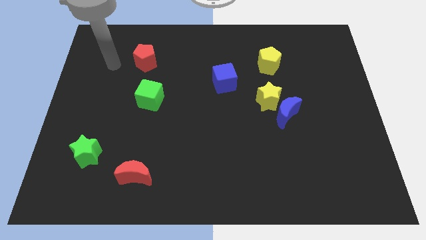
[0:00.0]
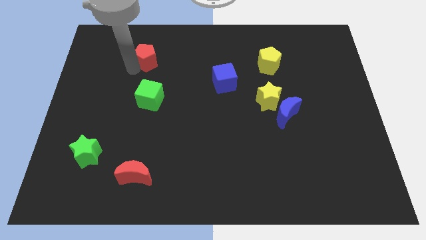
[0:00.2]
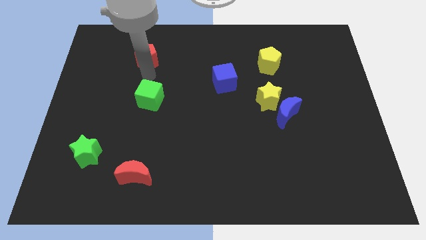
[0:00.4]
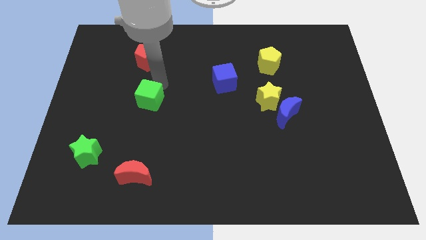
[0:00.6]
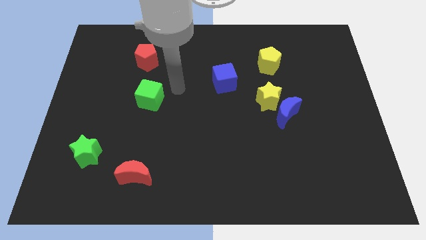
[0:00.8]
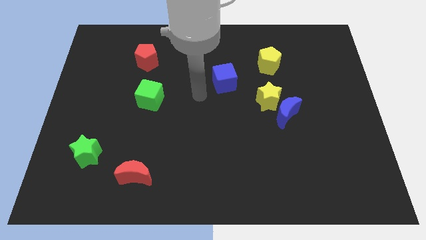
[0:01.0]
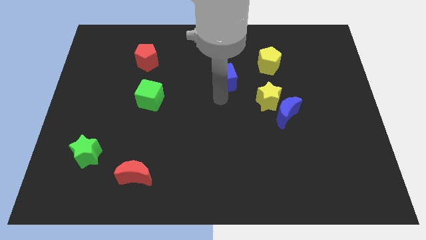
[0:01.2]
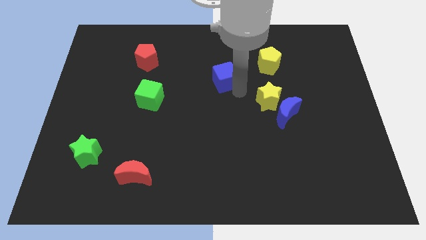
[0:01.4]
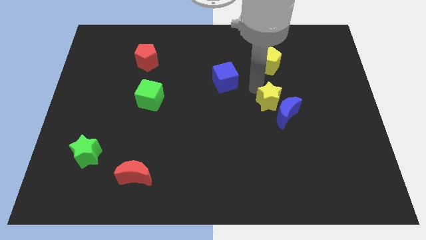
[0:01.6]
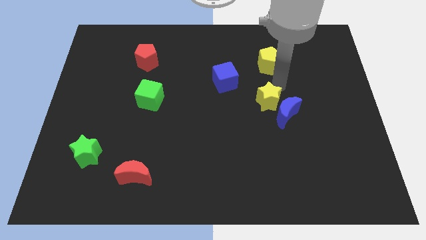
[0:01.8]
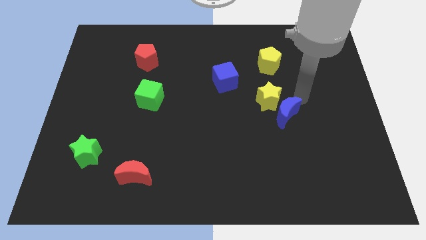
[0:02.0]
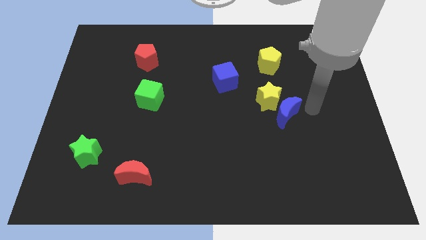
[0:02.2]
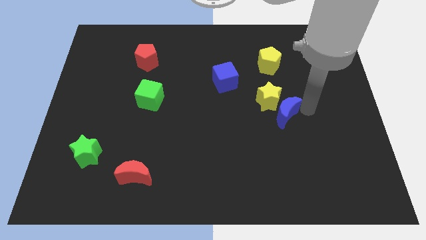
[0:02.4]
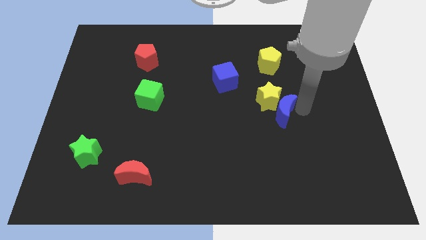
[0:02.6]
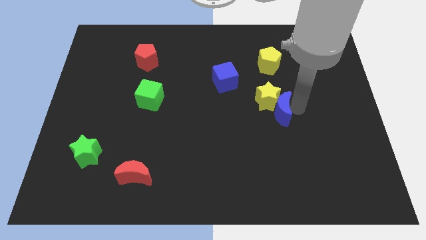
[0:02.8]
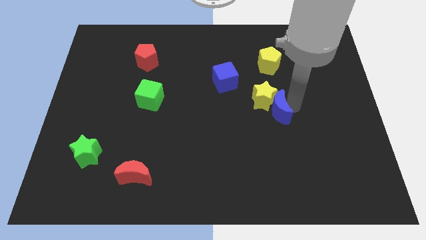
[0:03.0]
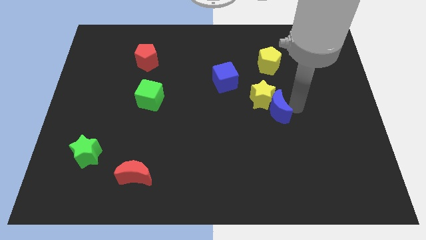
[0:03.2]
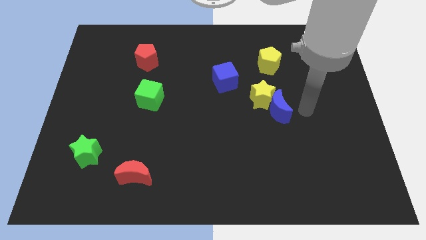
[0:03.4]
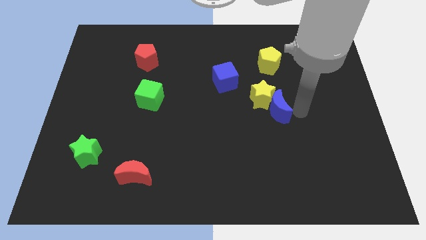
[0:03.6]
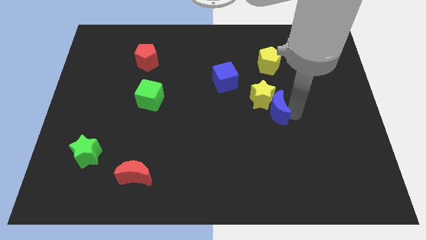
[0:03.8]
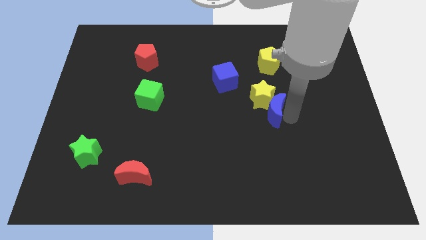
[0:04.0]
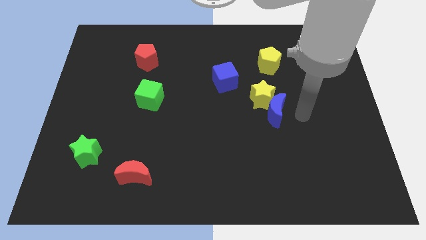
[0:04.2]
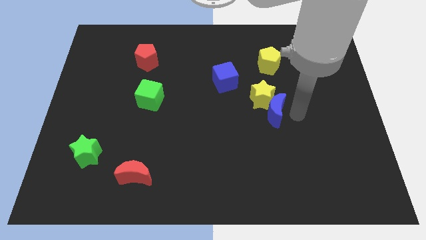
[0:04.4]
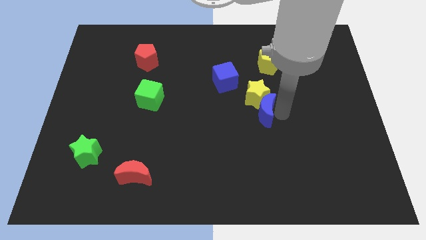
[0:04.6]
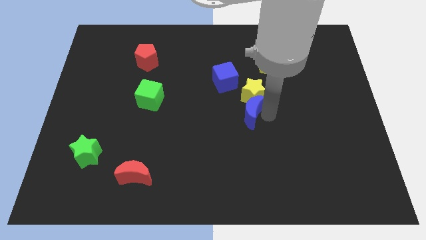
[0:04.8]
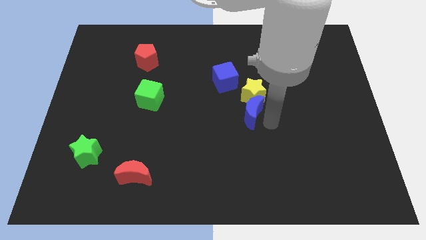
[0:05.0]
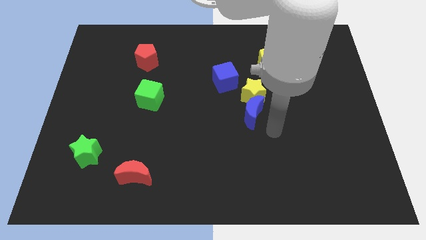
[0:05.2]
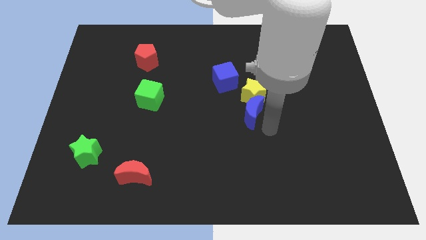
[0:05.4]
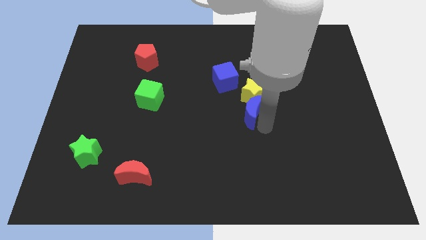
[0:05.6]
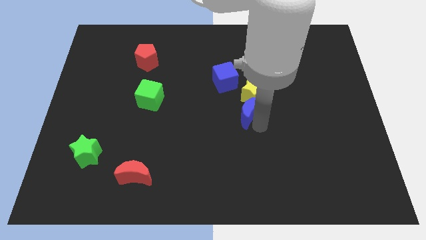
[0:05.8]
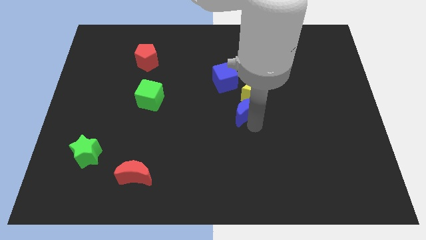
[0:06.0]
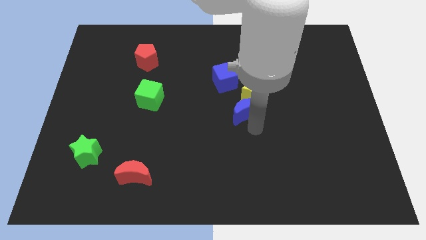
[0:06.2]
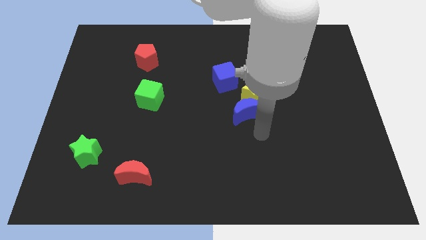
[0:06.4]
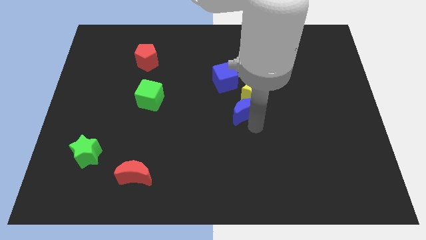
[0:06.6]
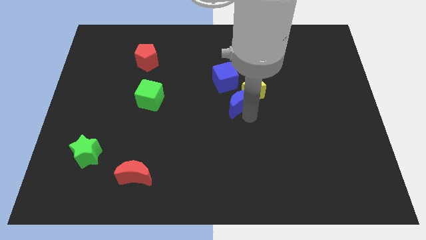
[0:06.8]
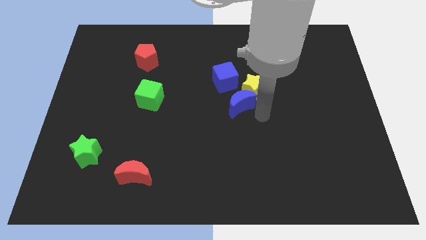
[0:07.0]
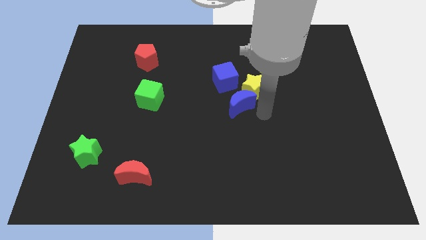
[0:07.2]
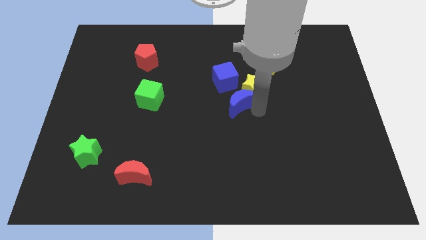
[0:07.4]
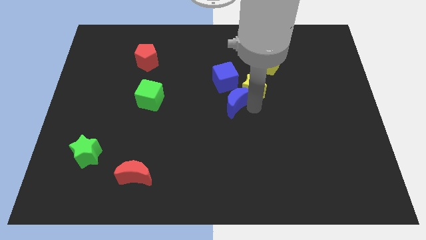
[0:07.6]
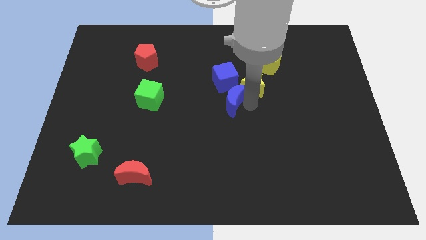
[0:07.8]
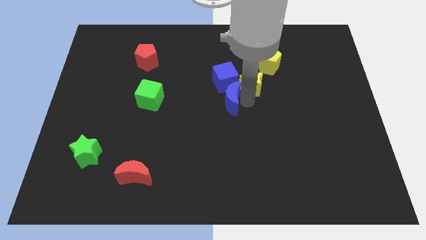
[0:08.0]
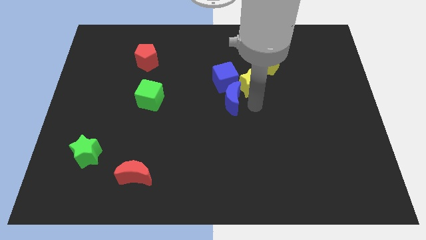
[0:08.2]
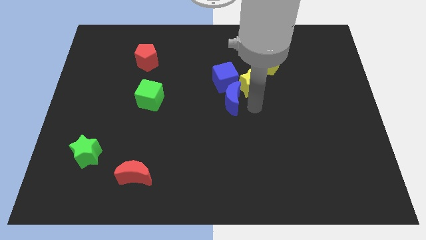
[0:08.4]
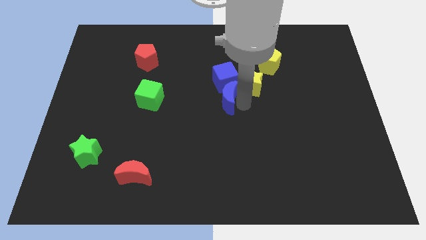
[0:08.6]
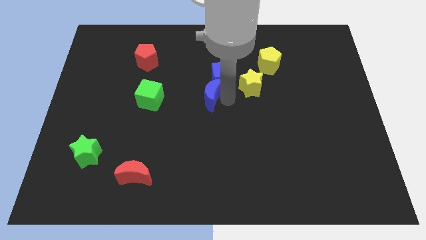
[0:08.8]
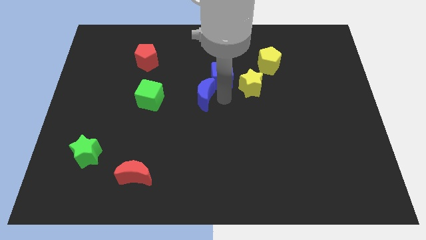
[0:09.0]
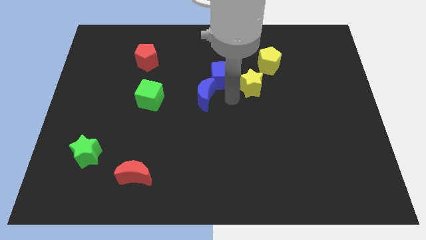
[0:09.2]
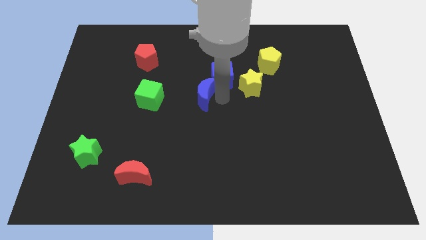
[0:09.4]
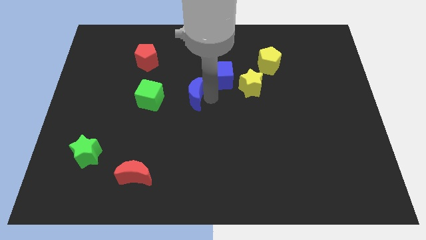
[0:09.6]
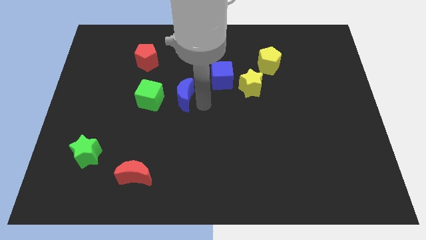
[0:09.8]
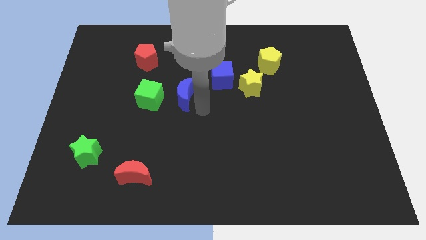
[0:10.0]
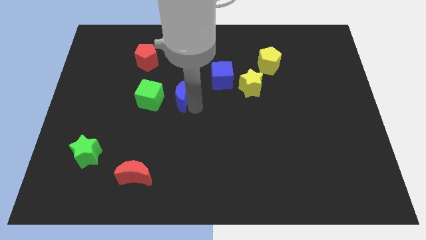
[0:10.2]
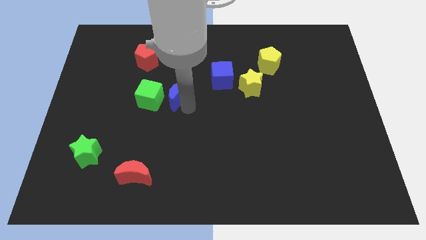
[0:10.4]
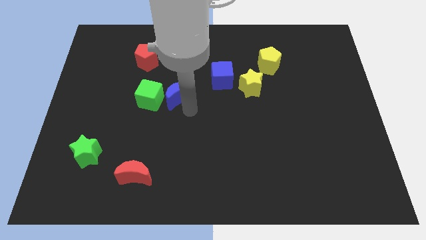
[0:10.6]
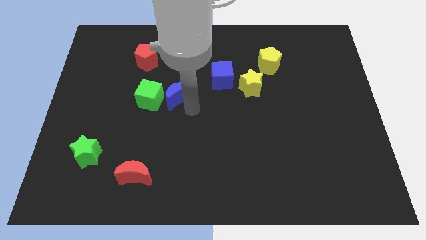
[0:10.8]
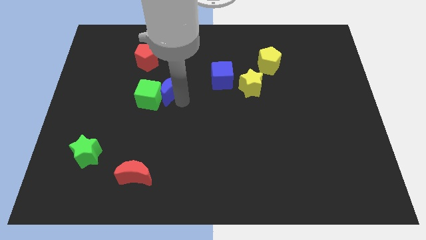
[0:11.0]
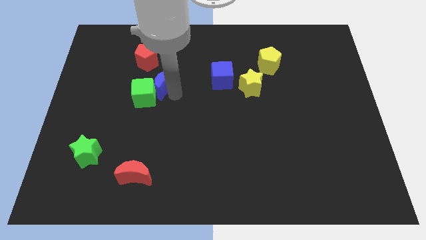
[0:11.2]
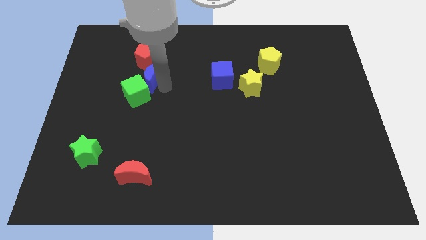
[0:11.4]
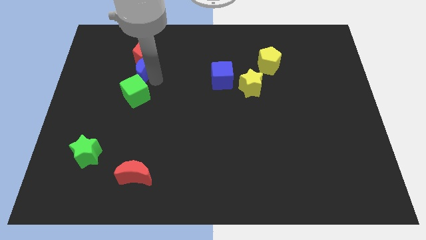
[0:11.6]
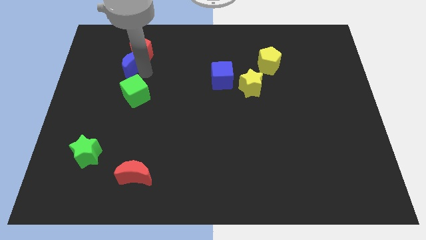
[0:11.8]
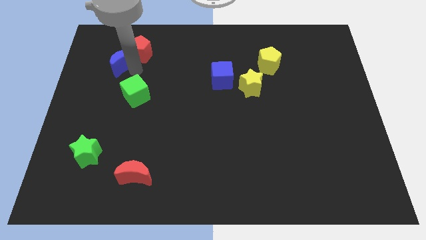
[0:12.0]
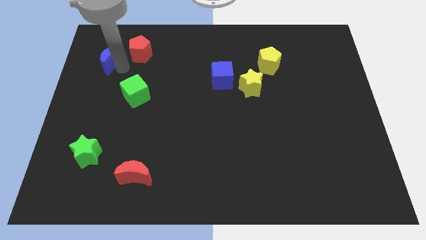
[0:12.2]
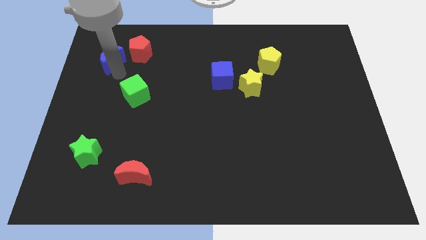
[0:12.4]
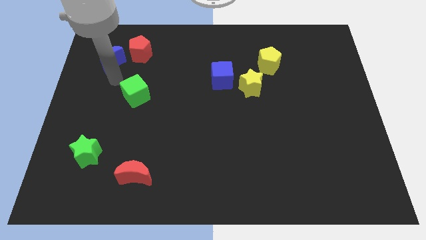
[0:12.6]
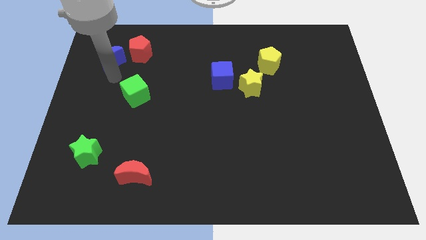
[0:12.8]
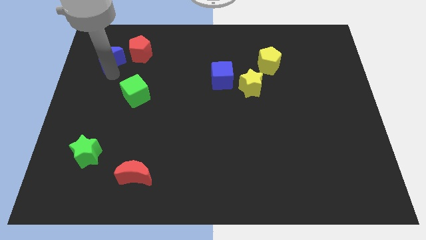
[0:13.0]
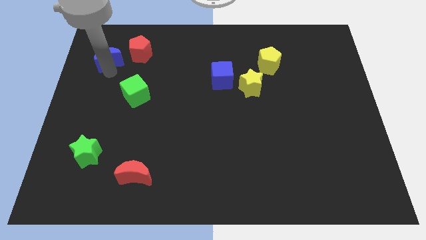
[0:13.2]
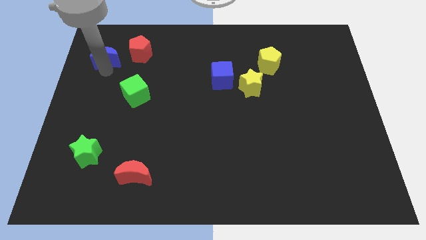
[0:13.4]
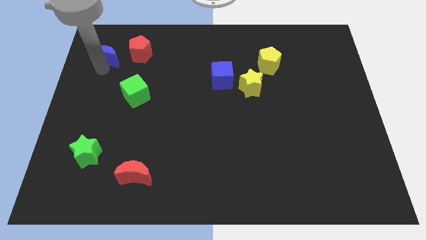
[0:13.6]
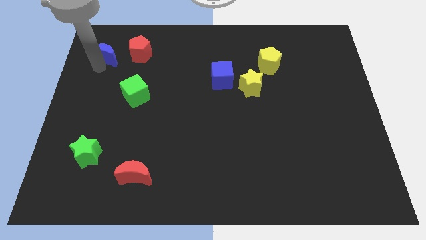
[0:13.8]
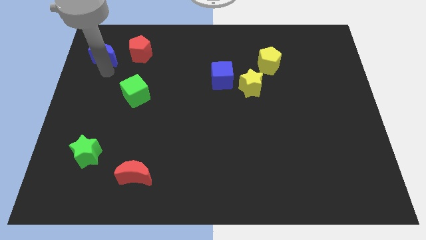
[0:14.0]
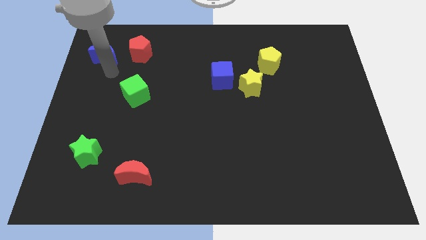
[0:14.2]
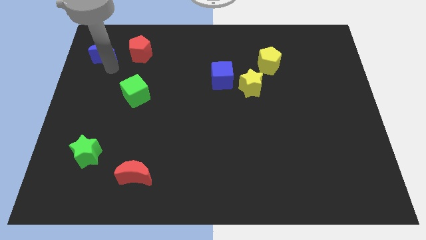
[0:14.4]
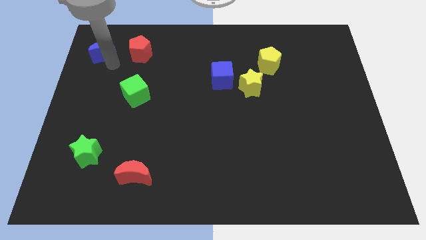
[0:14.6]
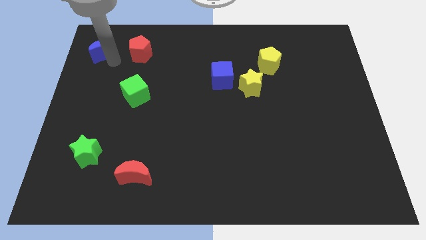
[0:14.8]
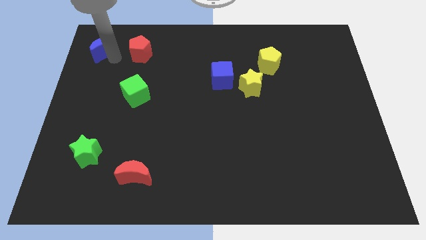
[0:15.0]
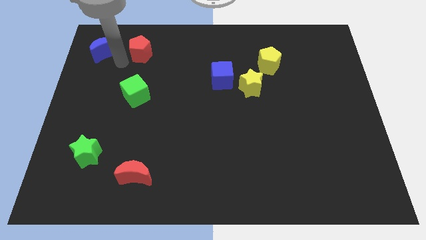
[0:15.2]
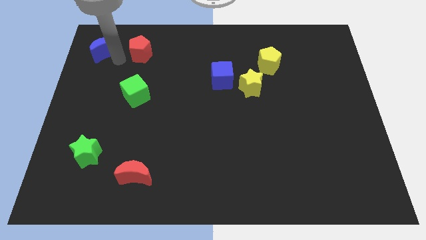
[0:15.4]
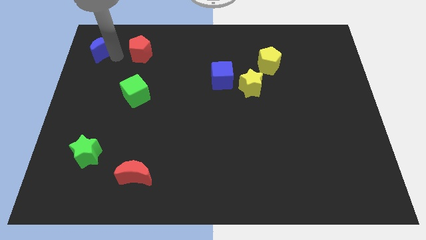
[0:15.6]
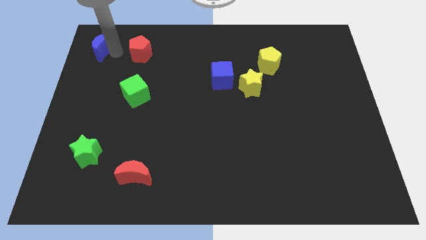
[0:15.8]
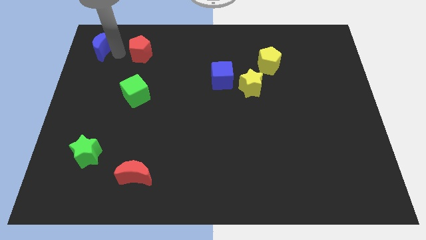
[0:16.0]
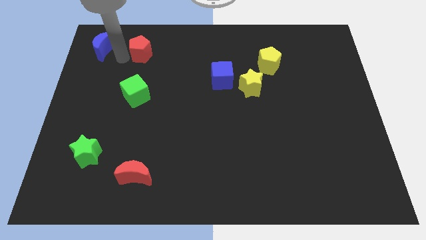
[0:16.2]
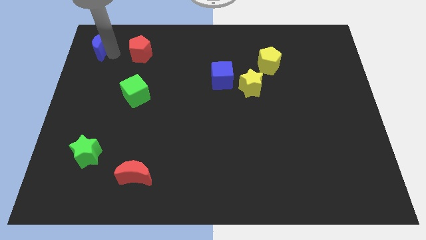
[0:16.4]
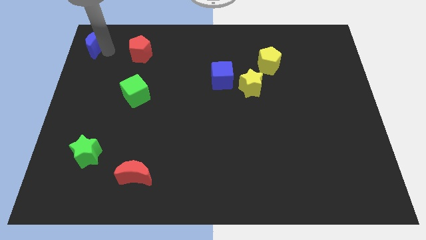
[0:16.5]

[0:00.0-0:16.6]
move the blue moon to the top left corner
